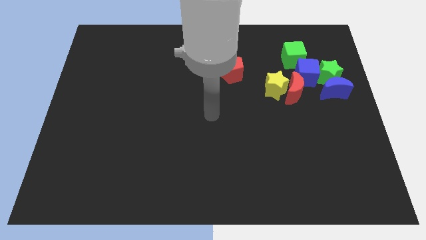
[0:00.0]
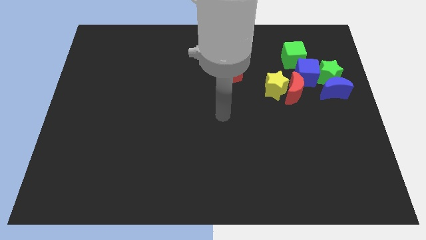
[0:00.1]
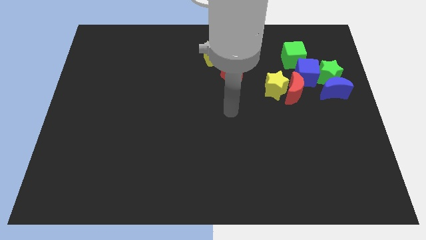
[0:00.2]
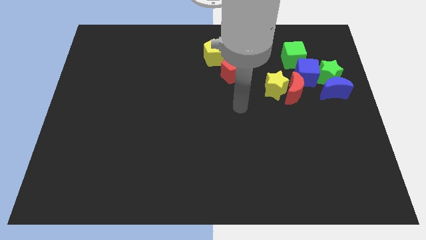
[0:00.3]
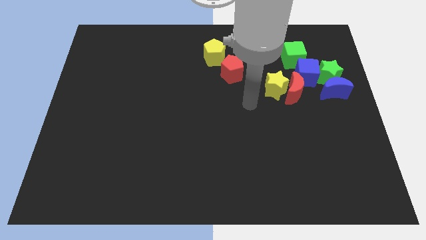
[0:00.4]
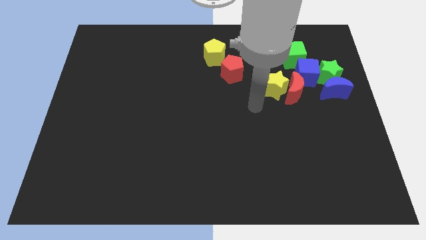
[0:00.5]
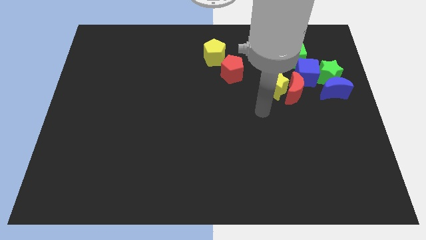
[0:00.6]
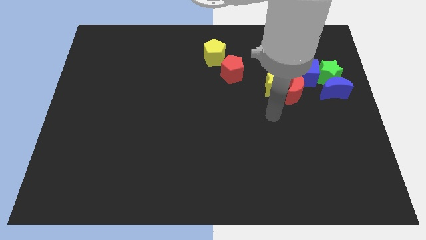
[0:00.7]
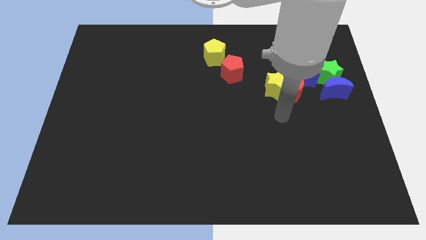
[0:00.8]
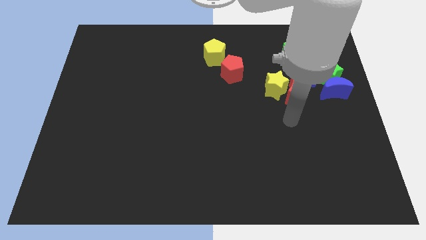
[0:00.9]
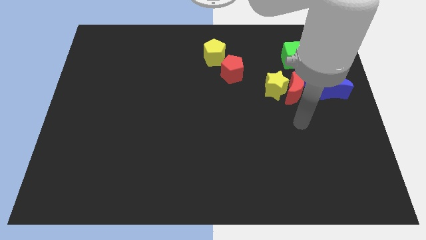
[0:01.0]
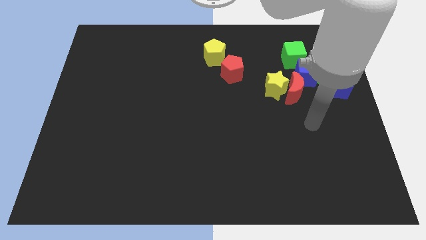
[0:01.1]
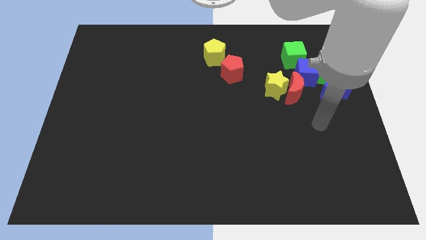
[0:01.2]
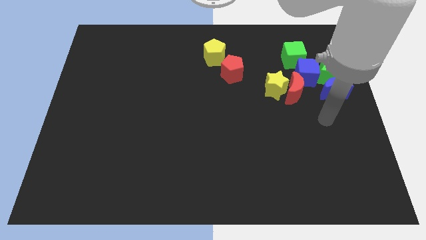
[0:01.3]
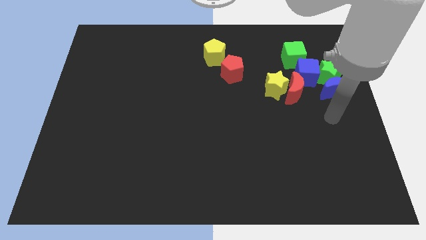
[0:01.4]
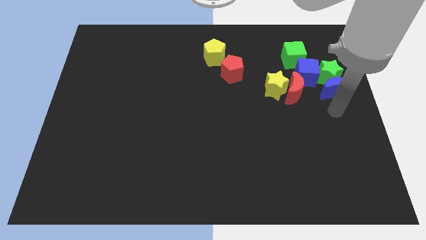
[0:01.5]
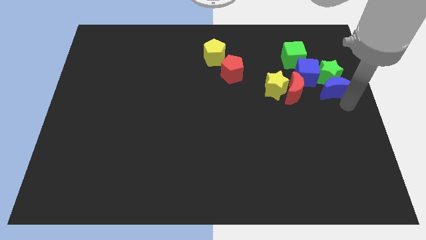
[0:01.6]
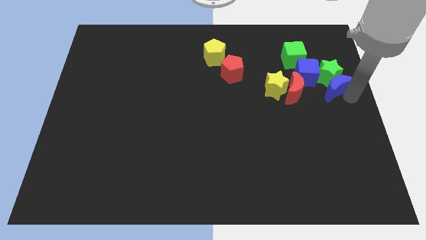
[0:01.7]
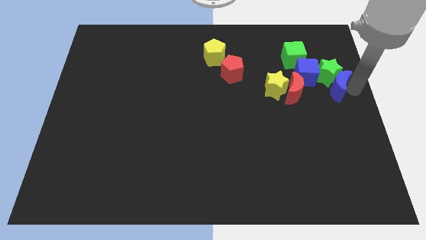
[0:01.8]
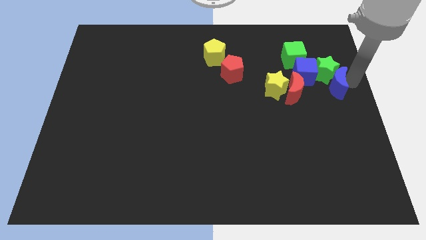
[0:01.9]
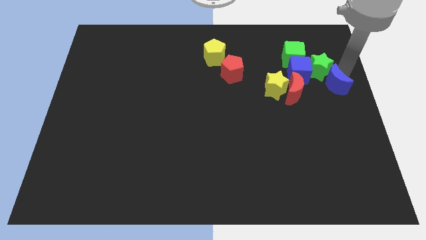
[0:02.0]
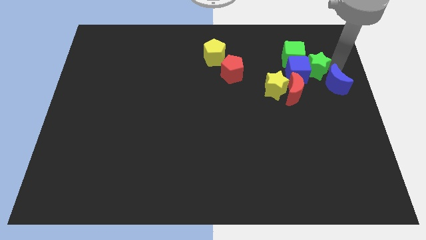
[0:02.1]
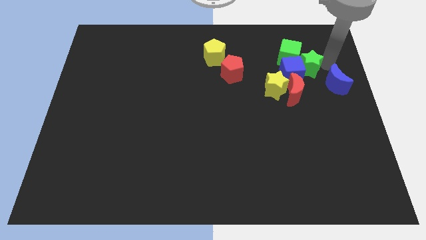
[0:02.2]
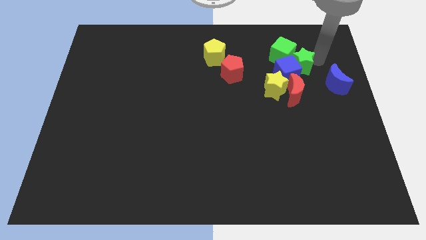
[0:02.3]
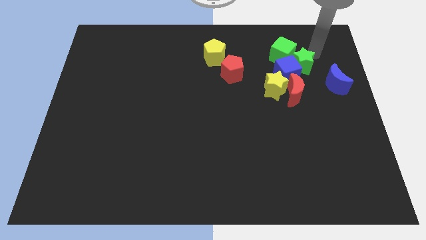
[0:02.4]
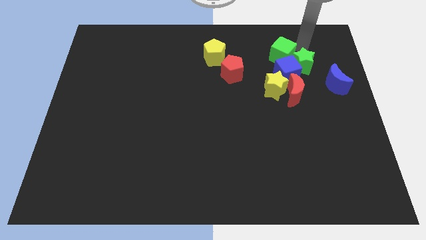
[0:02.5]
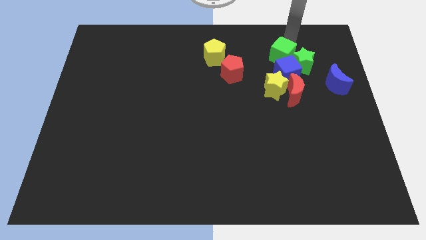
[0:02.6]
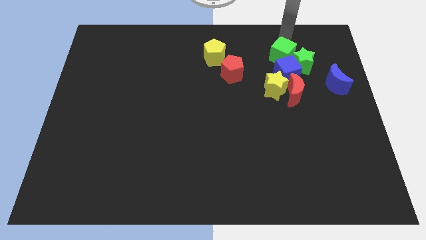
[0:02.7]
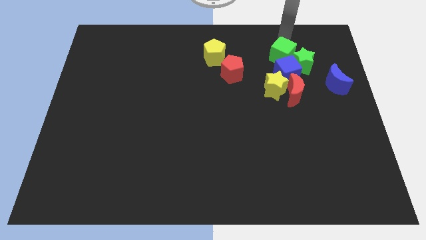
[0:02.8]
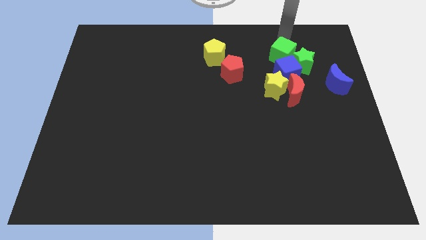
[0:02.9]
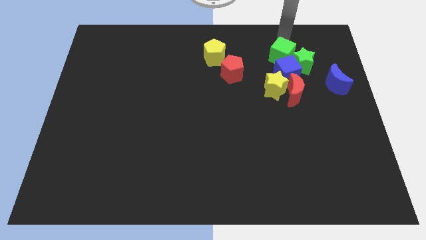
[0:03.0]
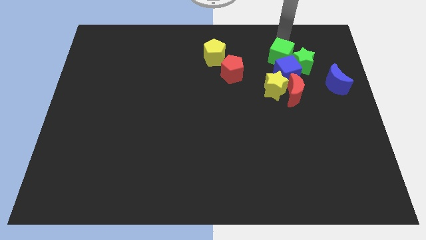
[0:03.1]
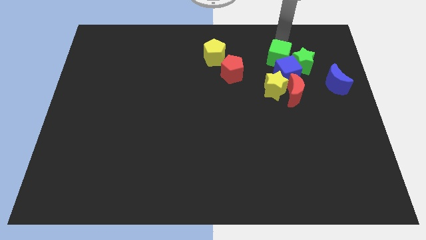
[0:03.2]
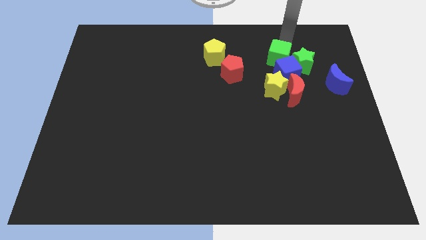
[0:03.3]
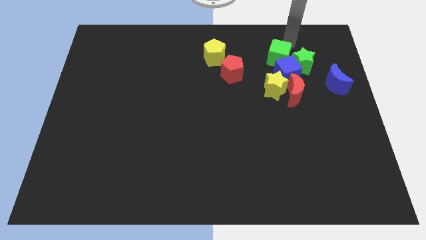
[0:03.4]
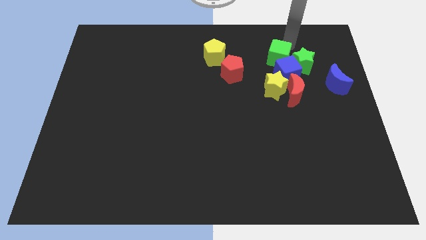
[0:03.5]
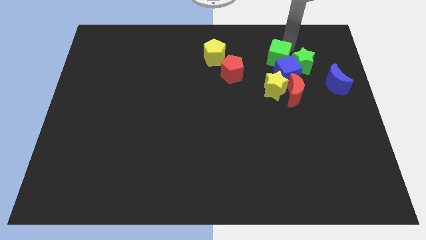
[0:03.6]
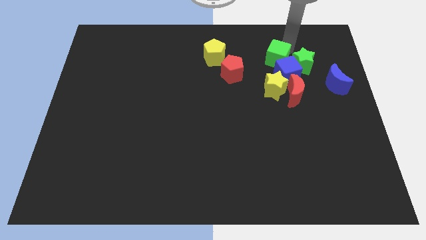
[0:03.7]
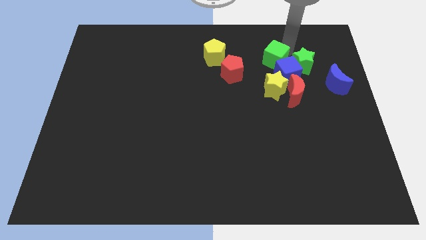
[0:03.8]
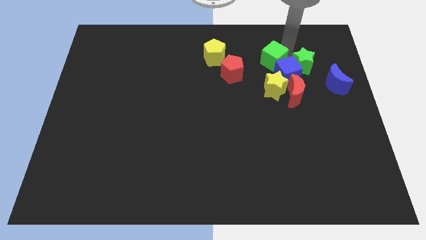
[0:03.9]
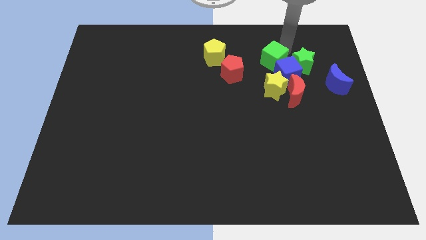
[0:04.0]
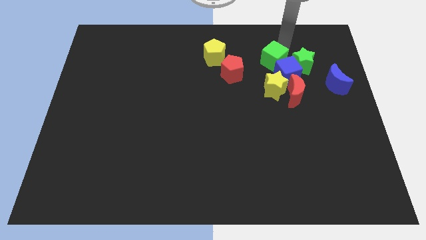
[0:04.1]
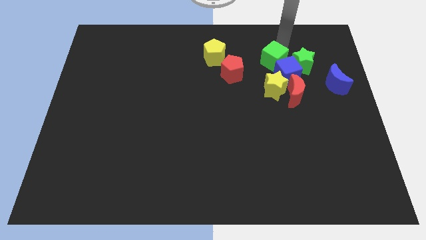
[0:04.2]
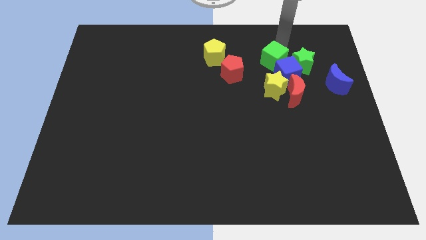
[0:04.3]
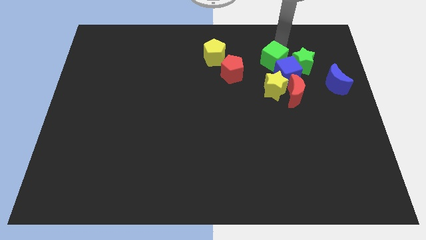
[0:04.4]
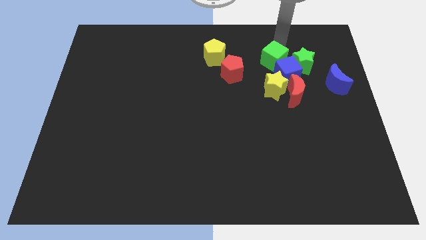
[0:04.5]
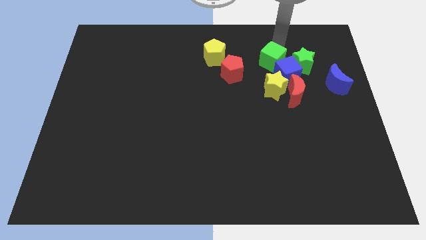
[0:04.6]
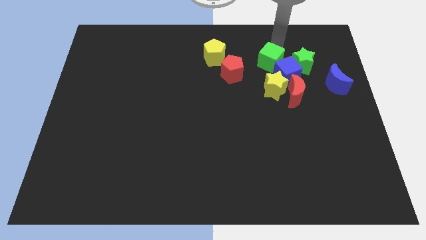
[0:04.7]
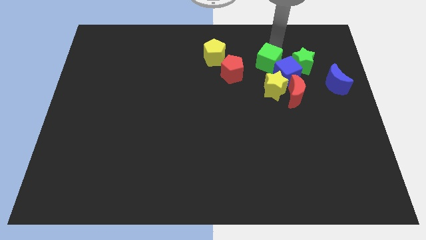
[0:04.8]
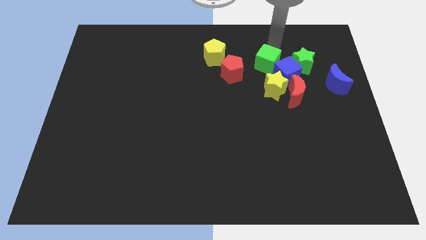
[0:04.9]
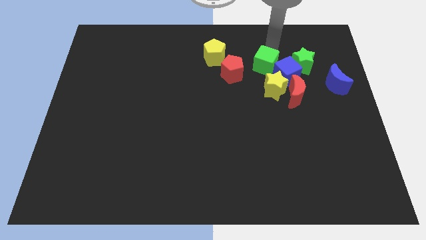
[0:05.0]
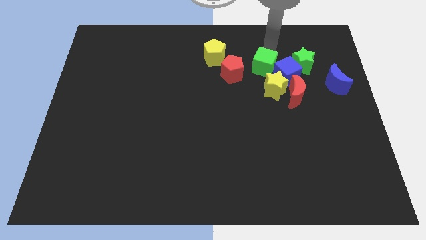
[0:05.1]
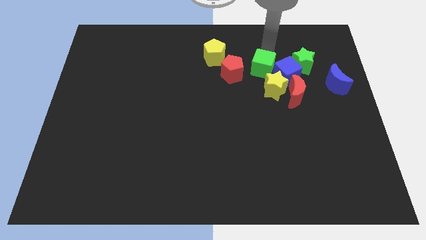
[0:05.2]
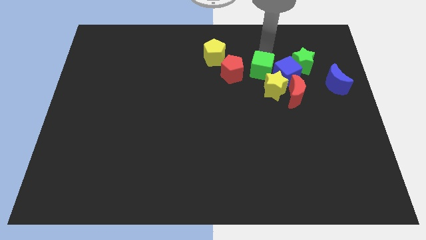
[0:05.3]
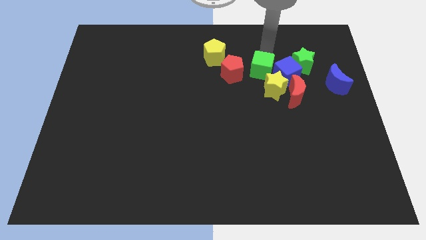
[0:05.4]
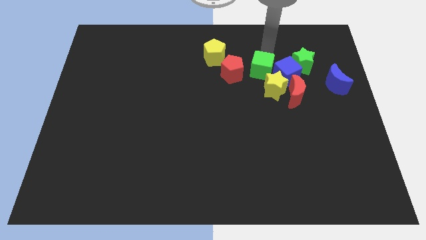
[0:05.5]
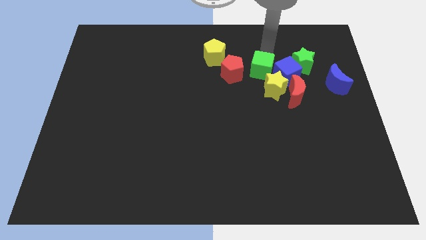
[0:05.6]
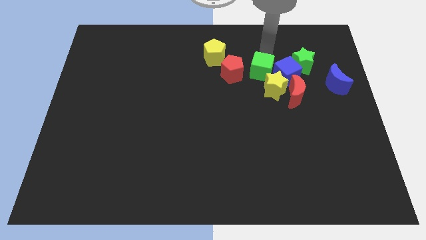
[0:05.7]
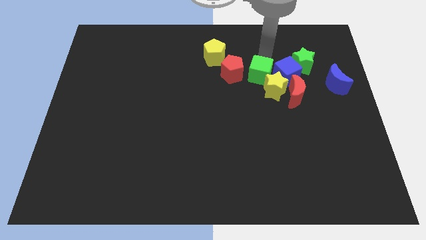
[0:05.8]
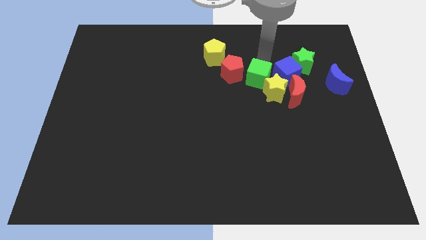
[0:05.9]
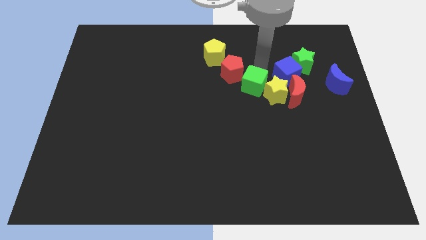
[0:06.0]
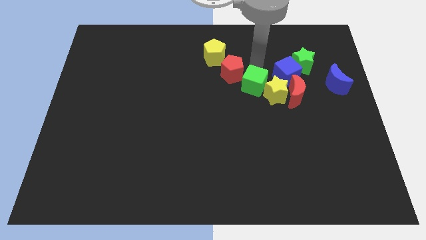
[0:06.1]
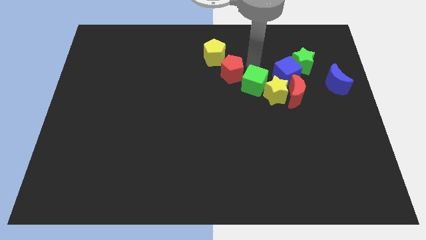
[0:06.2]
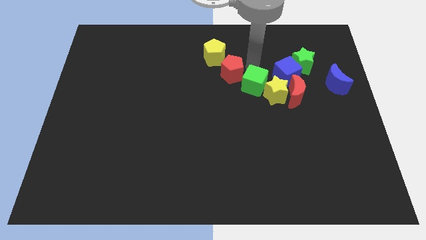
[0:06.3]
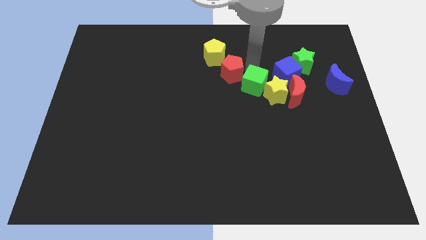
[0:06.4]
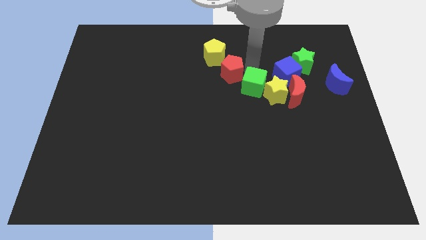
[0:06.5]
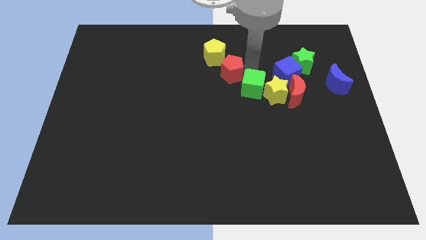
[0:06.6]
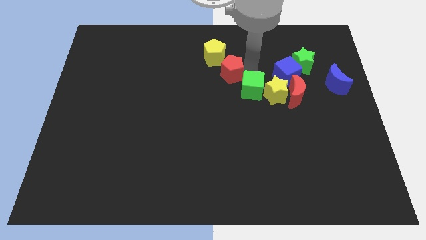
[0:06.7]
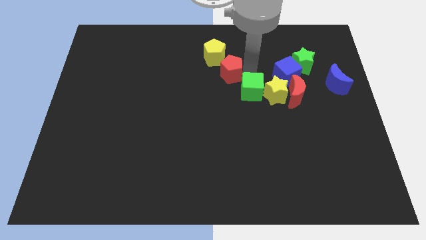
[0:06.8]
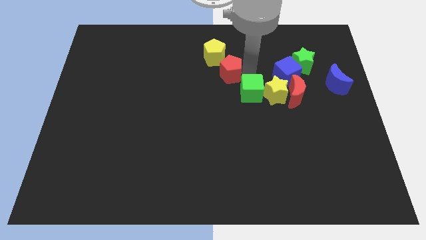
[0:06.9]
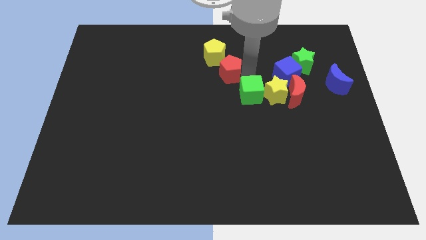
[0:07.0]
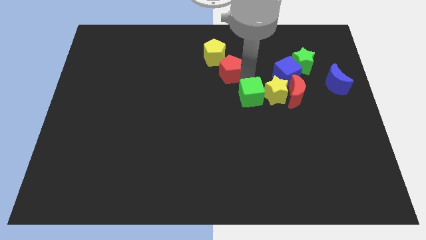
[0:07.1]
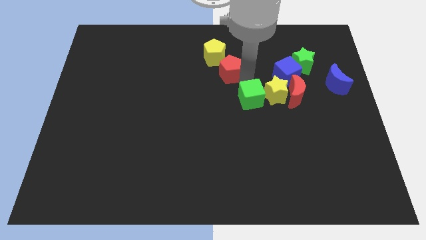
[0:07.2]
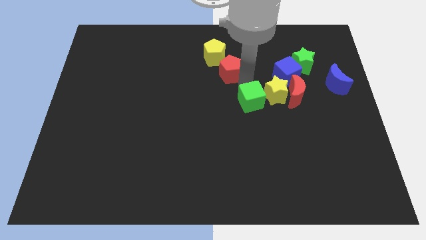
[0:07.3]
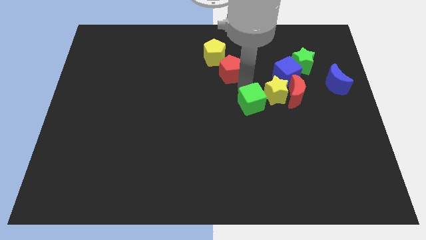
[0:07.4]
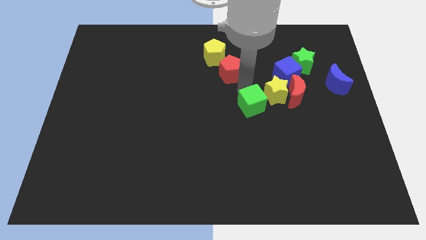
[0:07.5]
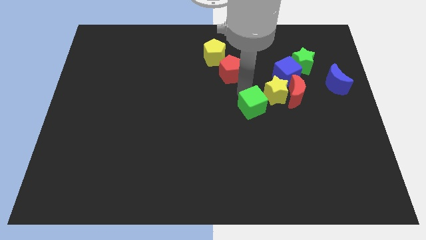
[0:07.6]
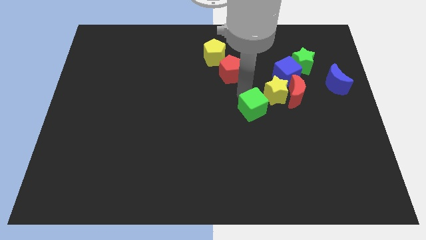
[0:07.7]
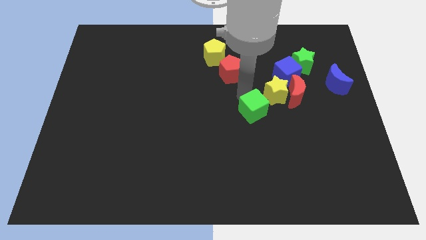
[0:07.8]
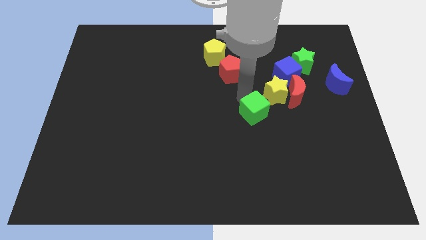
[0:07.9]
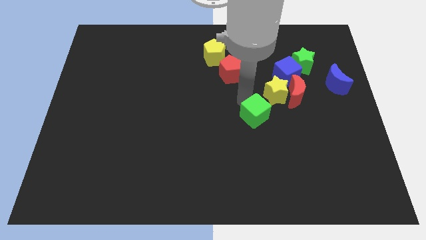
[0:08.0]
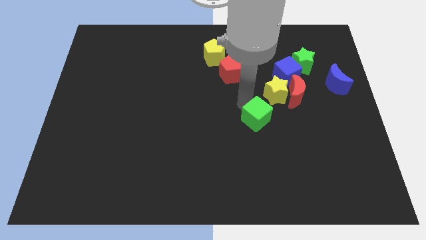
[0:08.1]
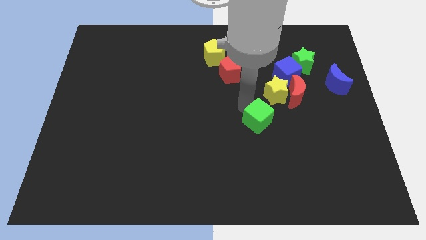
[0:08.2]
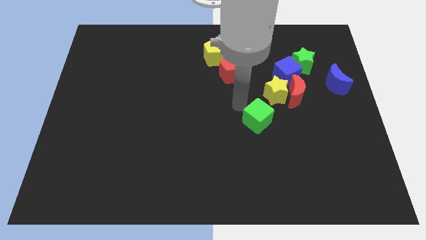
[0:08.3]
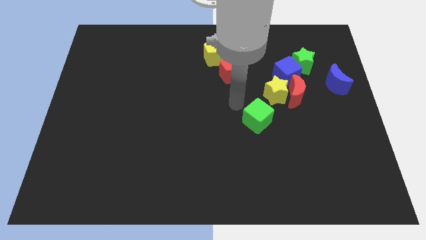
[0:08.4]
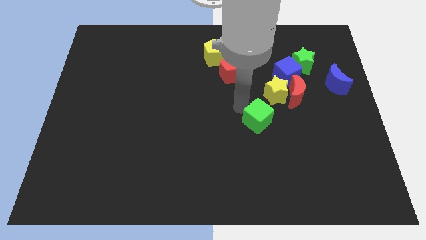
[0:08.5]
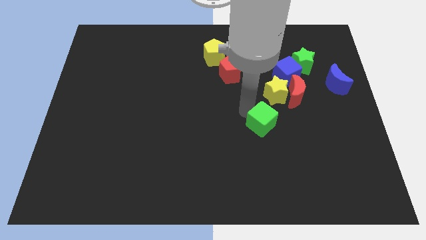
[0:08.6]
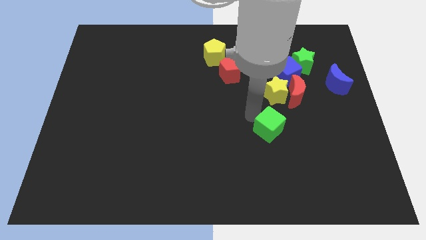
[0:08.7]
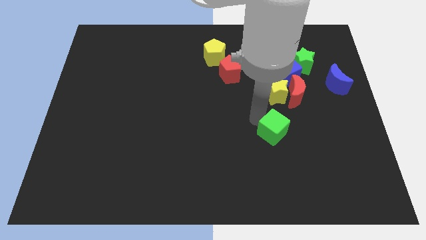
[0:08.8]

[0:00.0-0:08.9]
slide the green cube down
